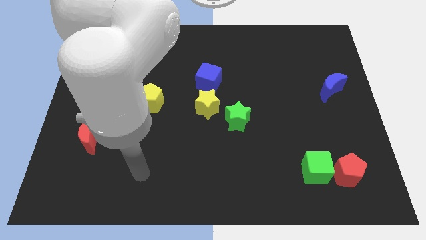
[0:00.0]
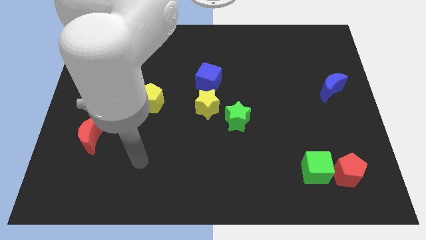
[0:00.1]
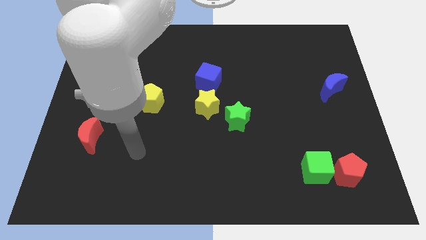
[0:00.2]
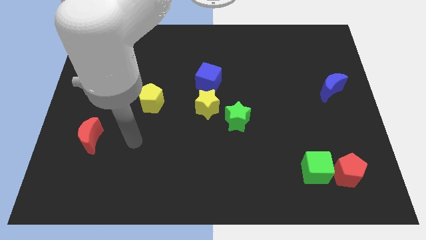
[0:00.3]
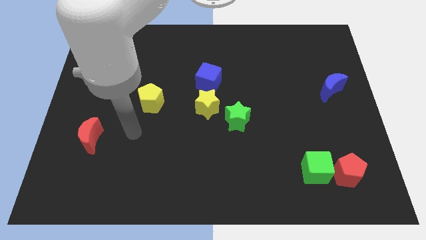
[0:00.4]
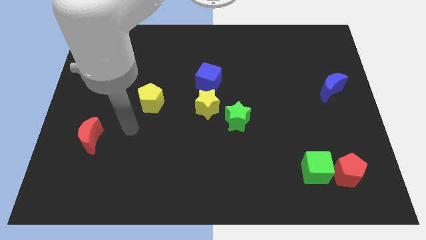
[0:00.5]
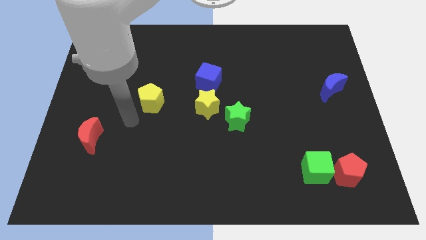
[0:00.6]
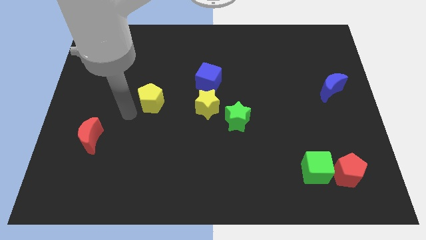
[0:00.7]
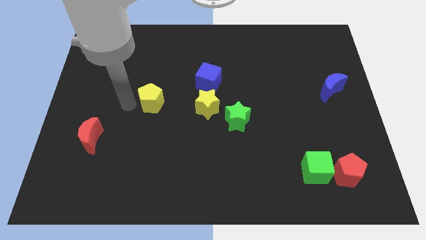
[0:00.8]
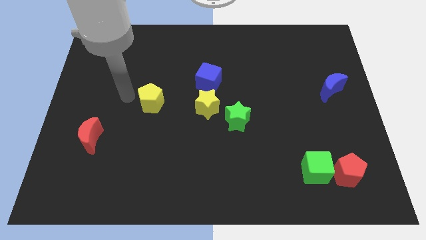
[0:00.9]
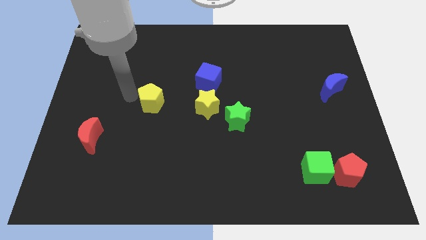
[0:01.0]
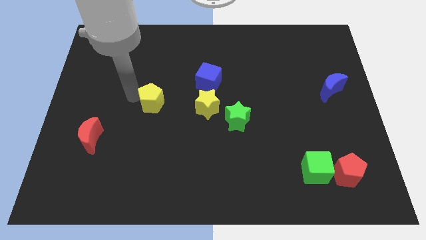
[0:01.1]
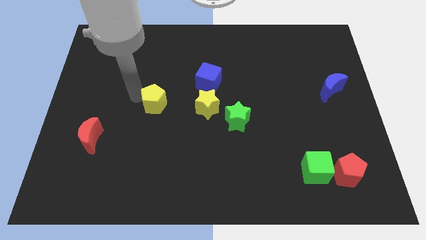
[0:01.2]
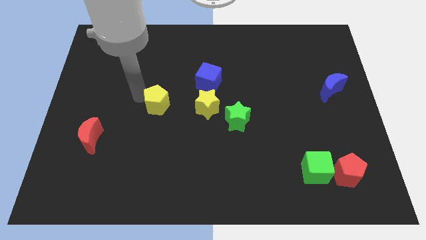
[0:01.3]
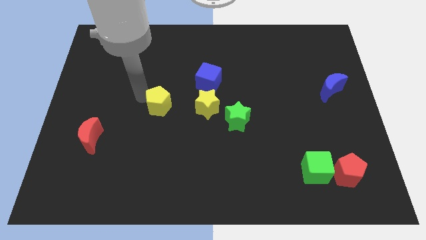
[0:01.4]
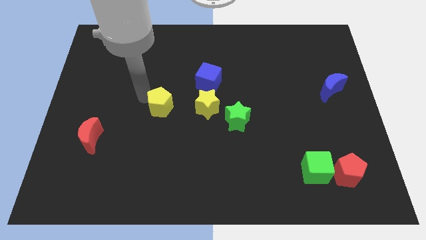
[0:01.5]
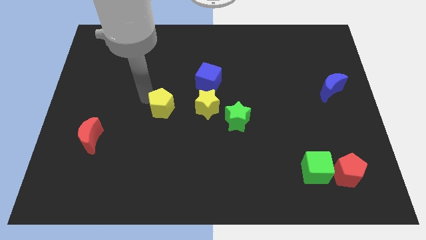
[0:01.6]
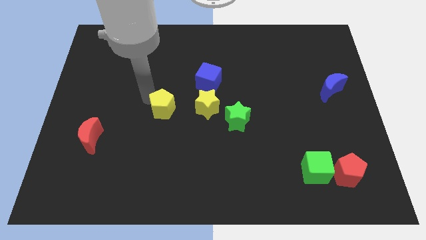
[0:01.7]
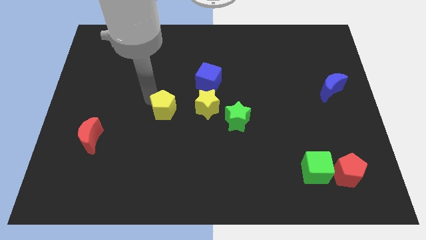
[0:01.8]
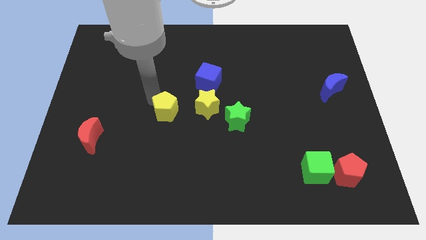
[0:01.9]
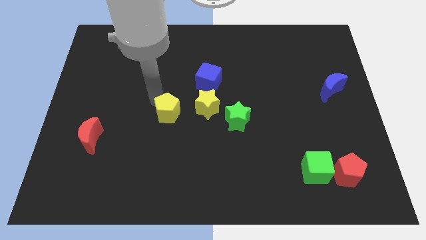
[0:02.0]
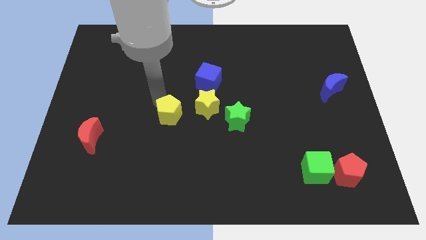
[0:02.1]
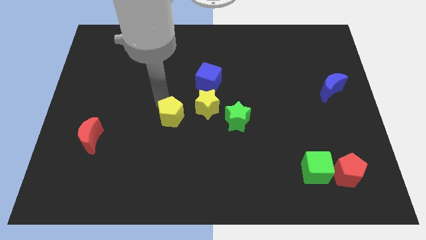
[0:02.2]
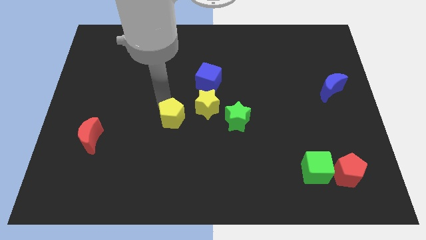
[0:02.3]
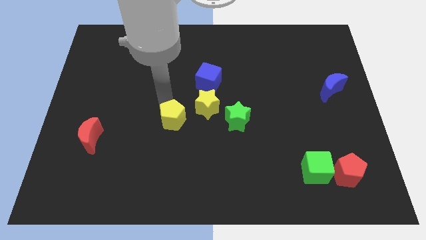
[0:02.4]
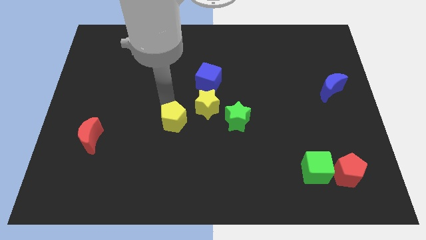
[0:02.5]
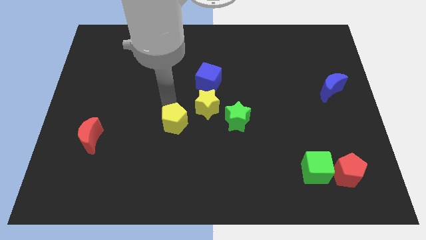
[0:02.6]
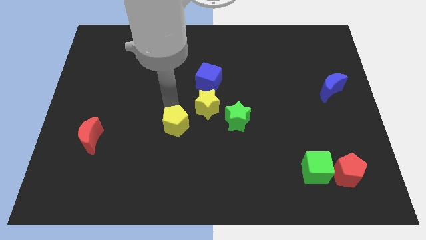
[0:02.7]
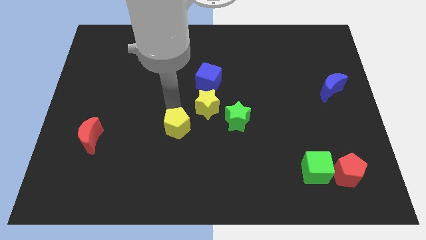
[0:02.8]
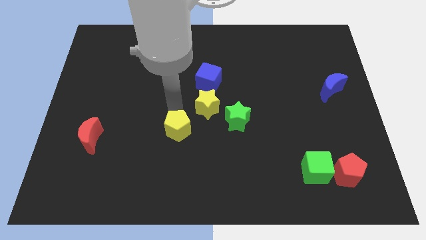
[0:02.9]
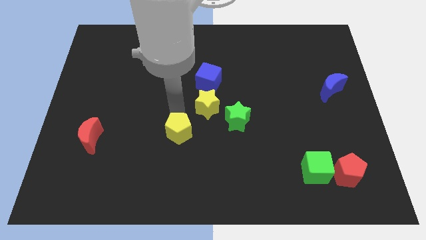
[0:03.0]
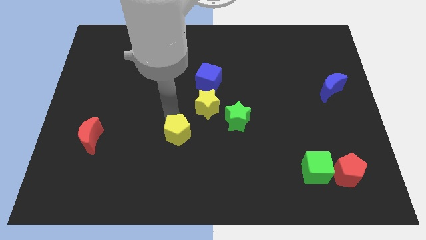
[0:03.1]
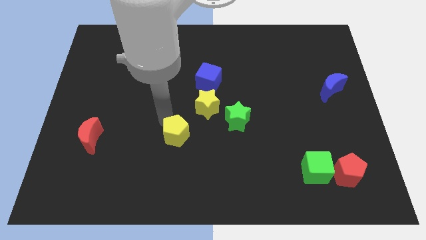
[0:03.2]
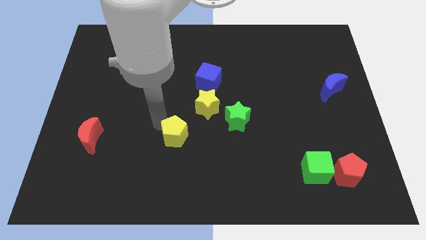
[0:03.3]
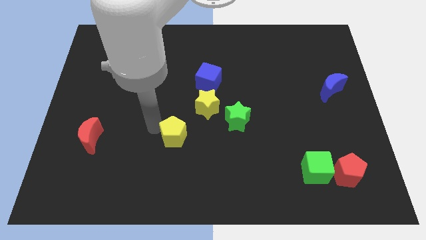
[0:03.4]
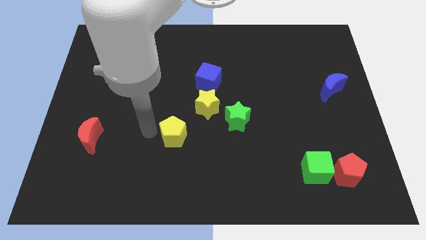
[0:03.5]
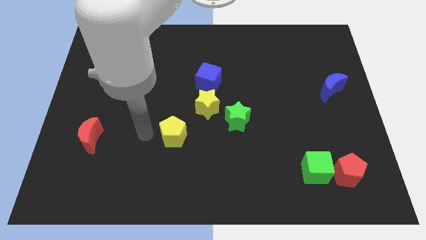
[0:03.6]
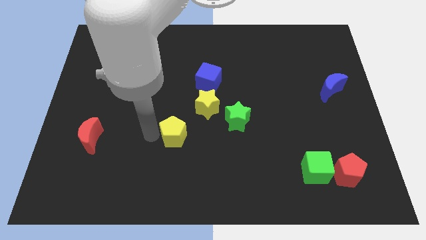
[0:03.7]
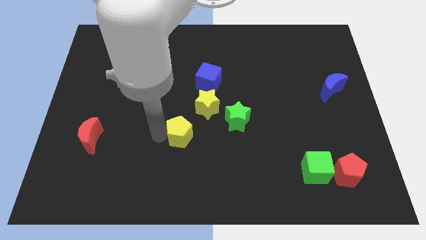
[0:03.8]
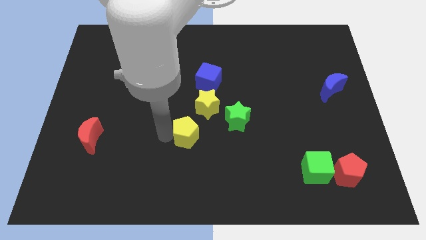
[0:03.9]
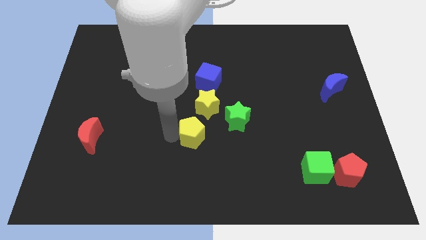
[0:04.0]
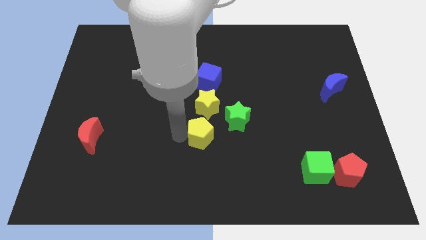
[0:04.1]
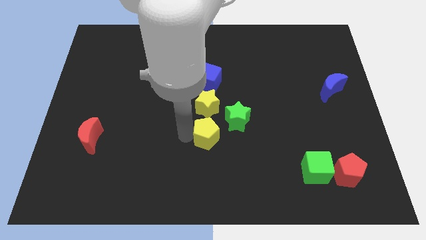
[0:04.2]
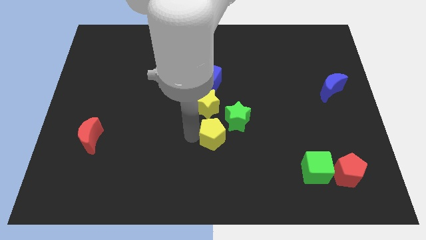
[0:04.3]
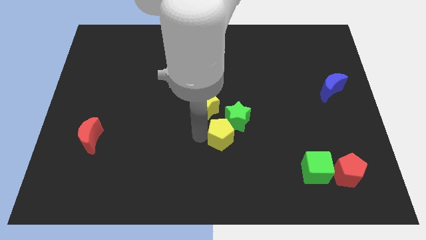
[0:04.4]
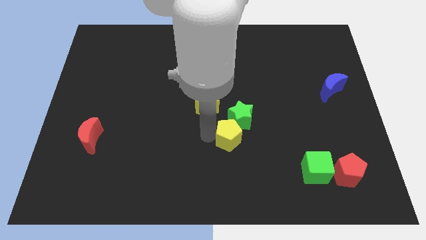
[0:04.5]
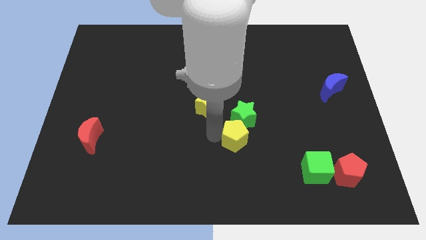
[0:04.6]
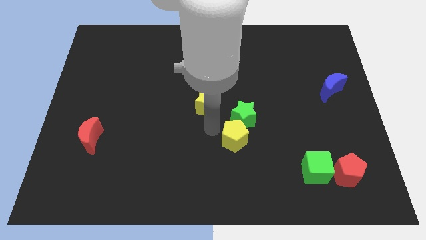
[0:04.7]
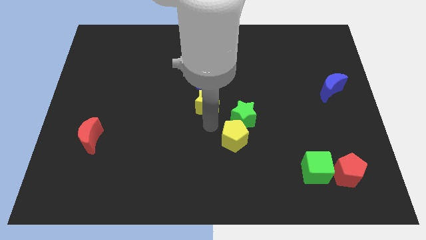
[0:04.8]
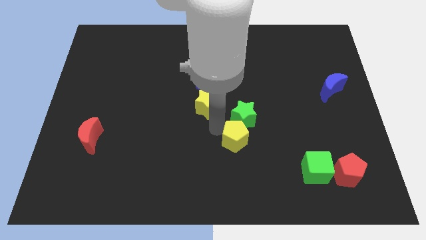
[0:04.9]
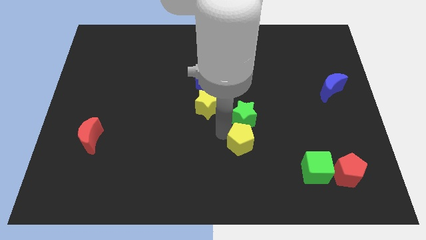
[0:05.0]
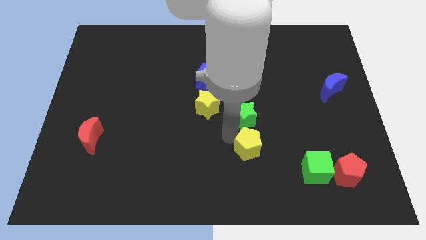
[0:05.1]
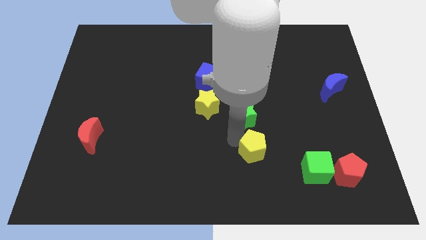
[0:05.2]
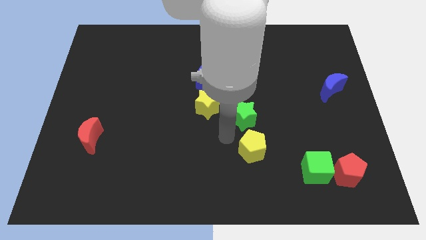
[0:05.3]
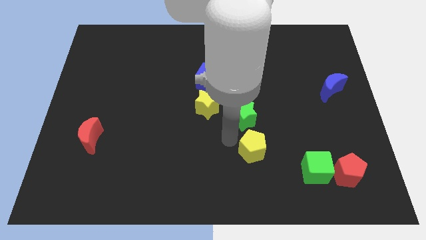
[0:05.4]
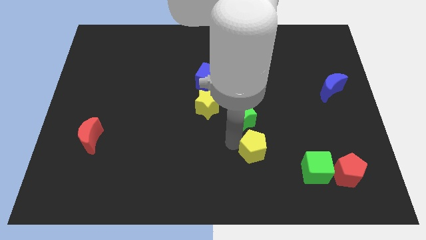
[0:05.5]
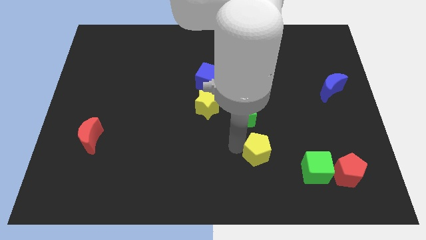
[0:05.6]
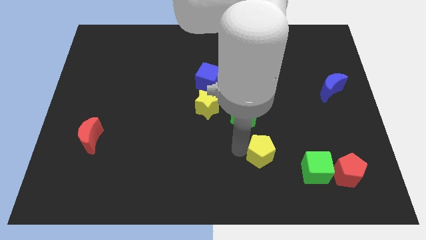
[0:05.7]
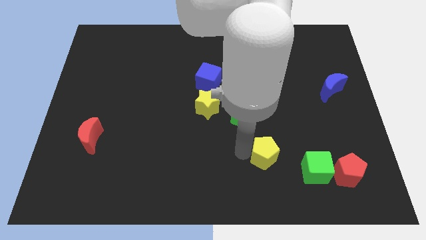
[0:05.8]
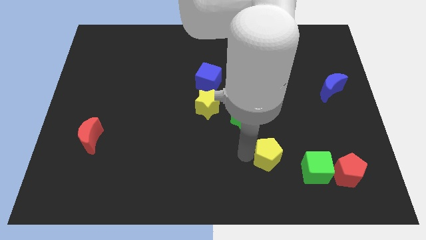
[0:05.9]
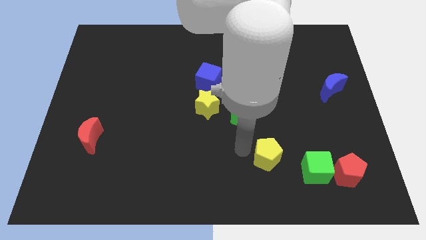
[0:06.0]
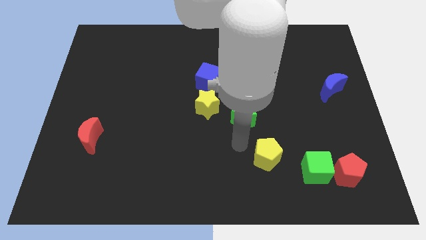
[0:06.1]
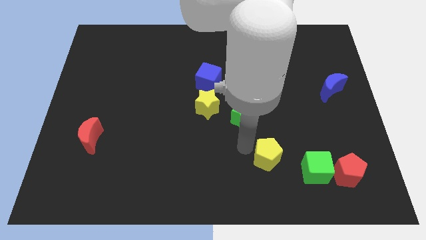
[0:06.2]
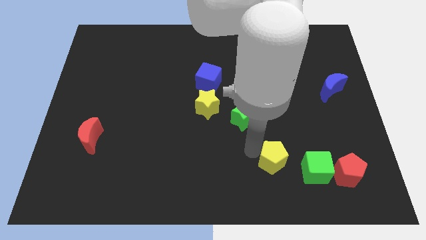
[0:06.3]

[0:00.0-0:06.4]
put the yellow pentagon just left of the red pentagon
